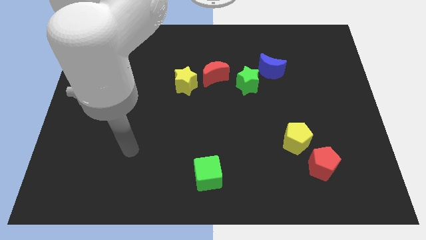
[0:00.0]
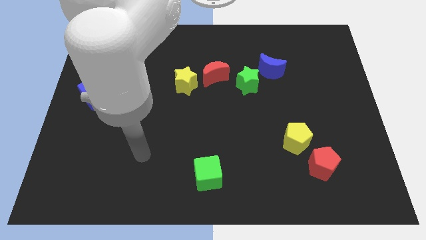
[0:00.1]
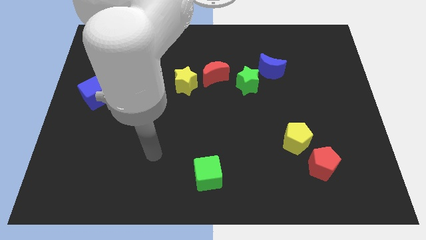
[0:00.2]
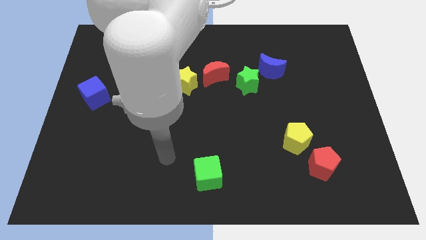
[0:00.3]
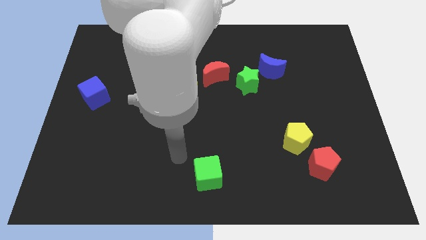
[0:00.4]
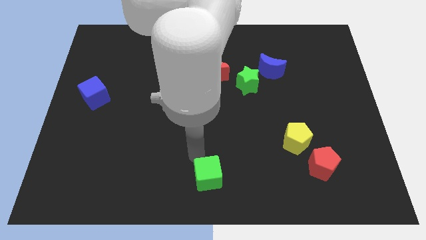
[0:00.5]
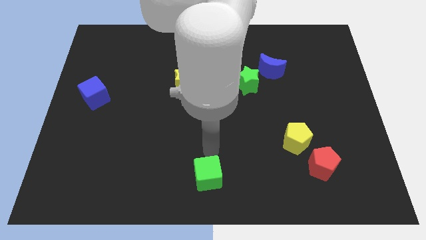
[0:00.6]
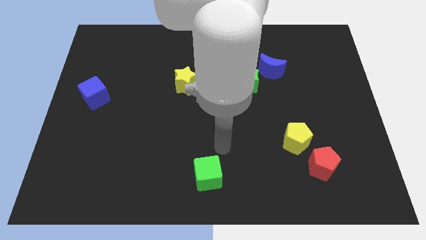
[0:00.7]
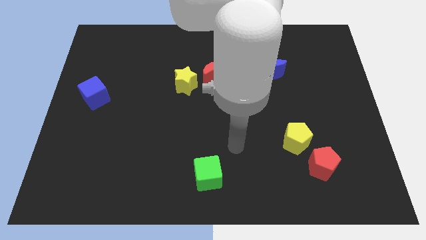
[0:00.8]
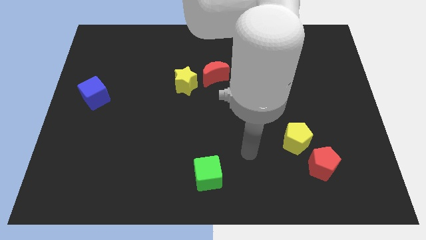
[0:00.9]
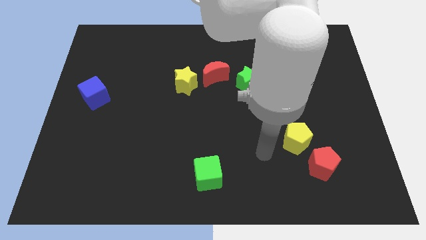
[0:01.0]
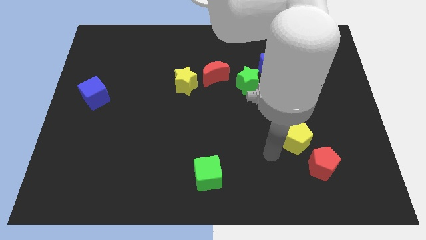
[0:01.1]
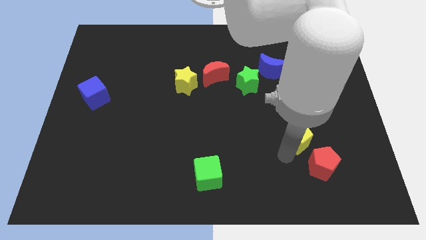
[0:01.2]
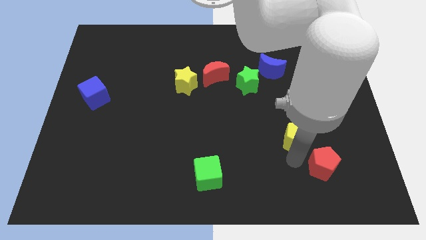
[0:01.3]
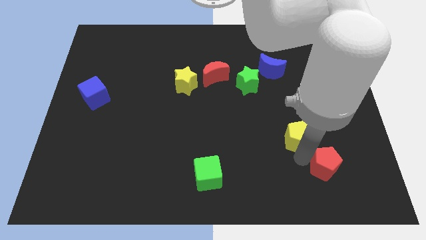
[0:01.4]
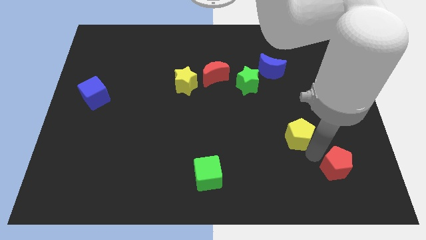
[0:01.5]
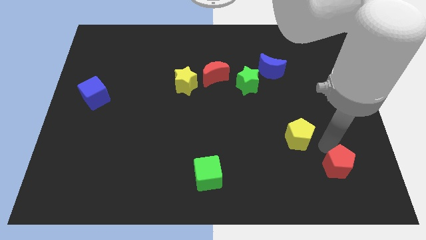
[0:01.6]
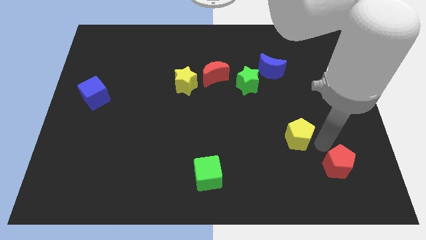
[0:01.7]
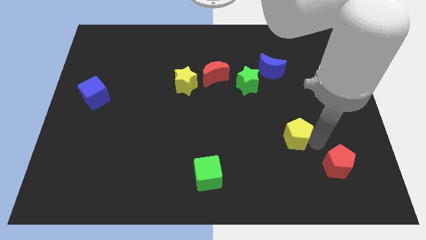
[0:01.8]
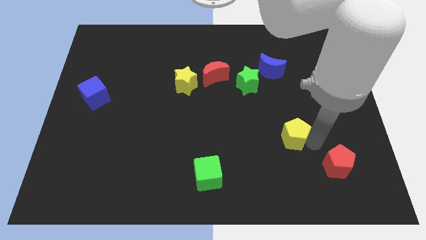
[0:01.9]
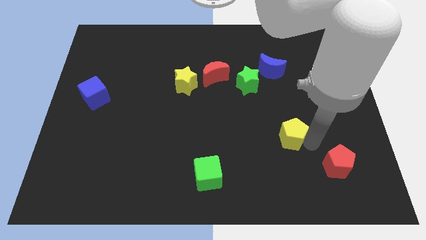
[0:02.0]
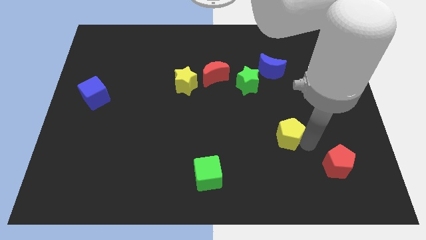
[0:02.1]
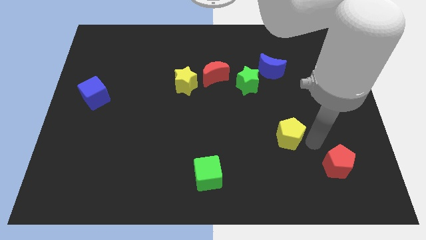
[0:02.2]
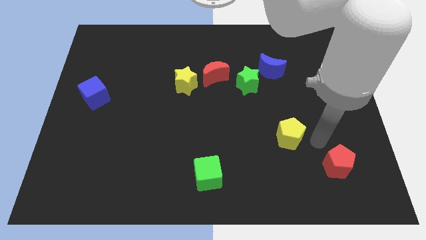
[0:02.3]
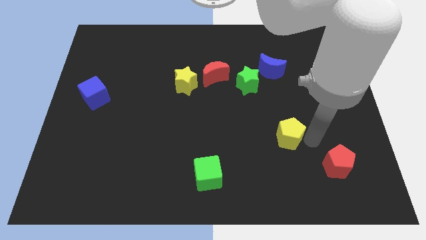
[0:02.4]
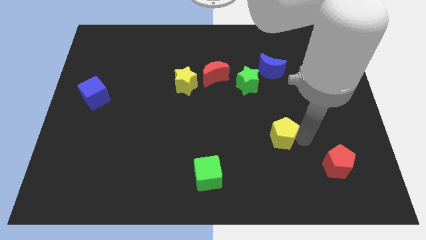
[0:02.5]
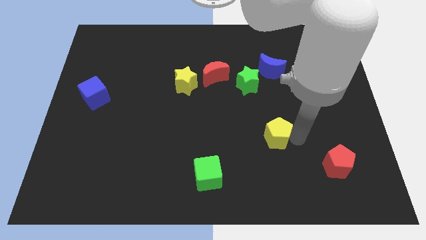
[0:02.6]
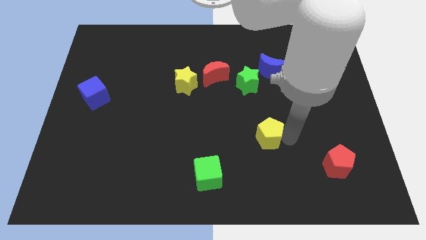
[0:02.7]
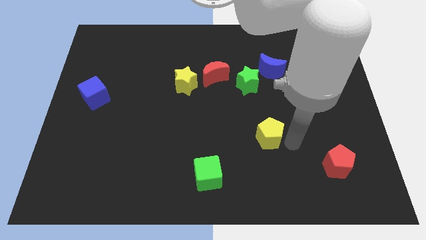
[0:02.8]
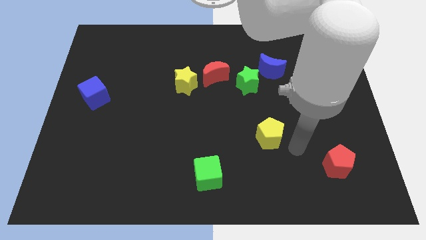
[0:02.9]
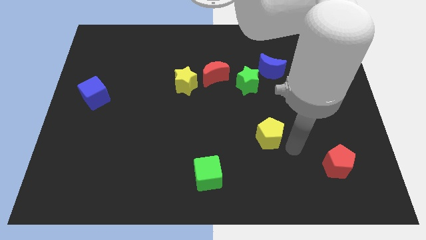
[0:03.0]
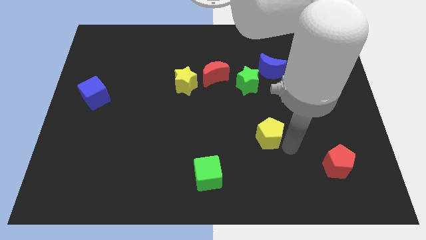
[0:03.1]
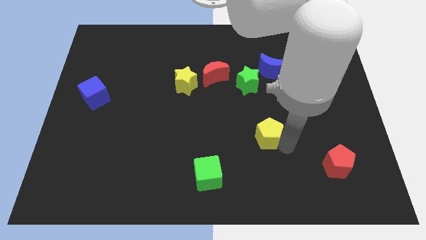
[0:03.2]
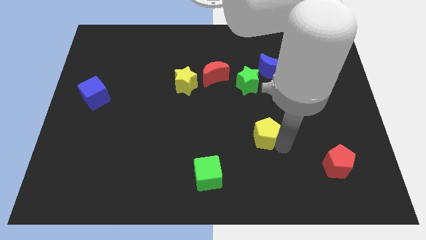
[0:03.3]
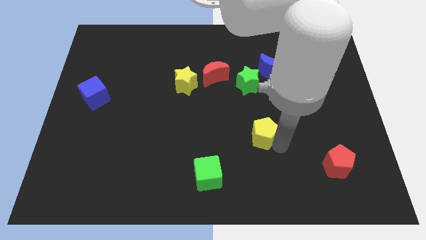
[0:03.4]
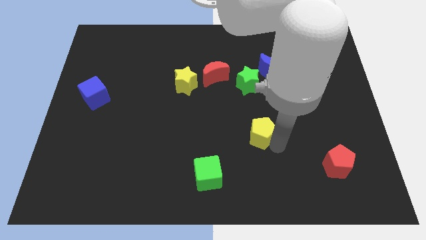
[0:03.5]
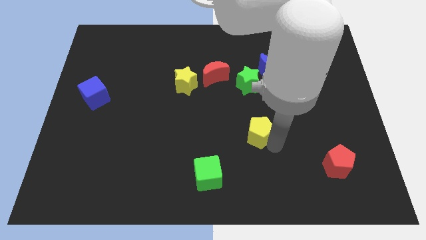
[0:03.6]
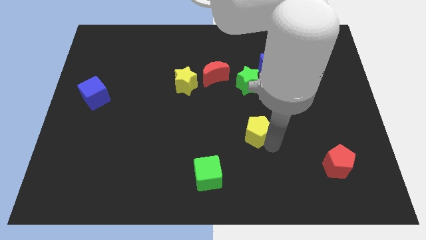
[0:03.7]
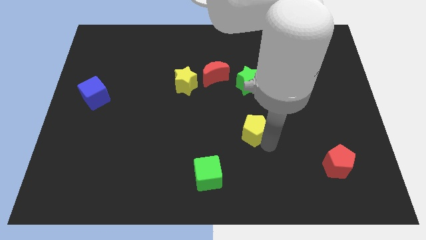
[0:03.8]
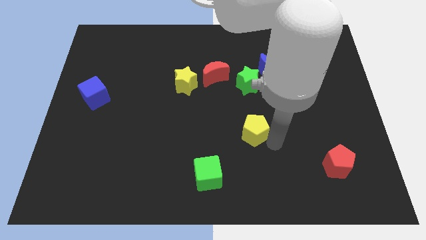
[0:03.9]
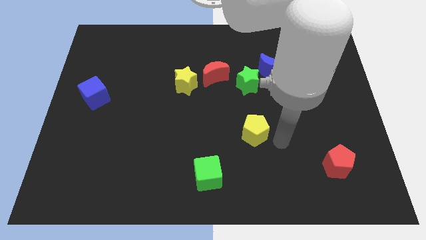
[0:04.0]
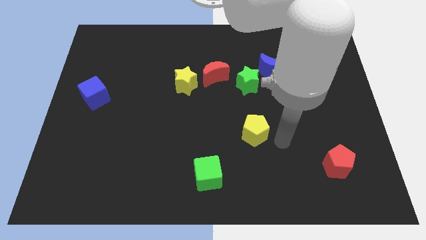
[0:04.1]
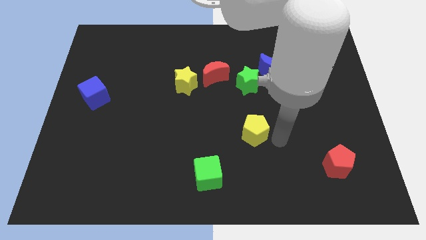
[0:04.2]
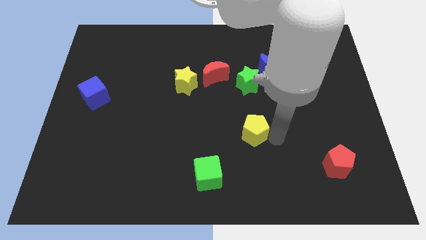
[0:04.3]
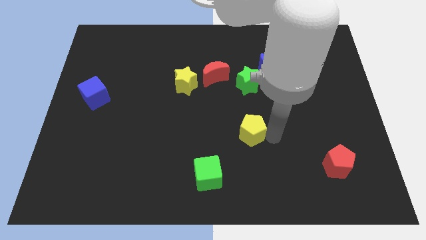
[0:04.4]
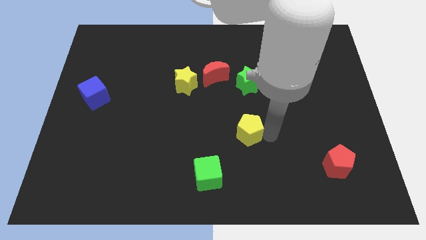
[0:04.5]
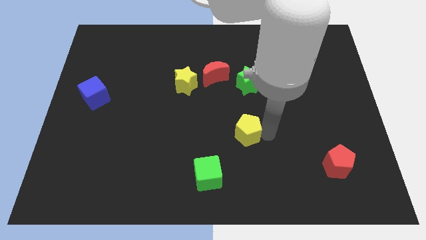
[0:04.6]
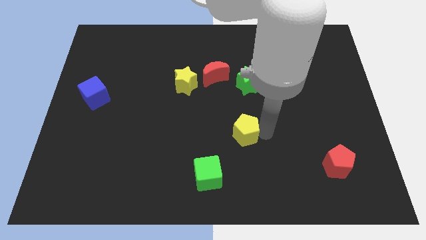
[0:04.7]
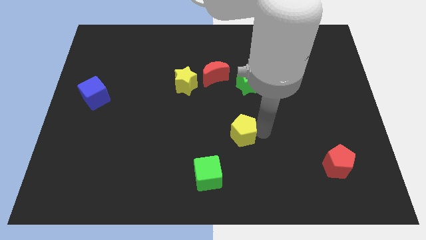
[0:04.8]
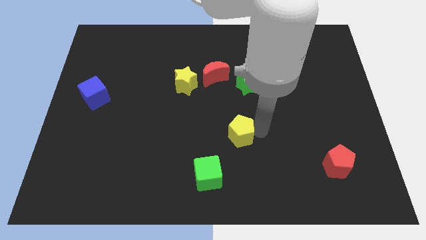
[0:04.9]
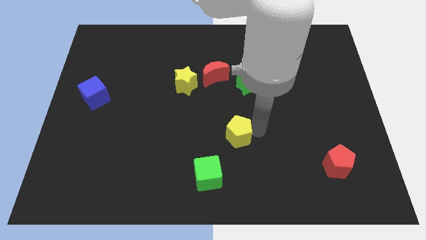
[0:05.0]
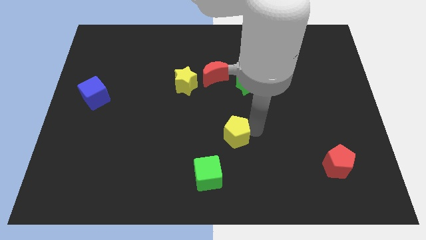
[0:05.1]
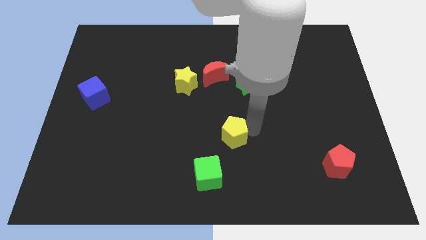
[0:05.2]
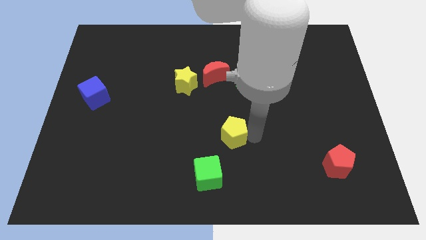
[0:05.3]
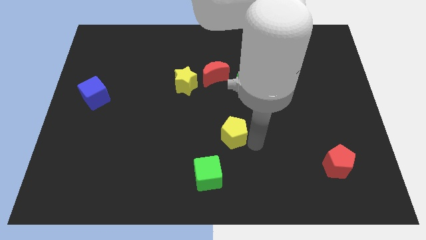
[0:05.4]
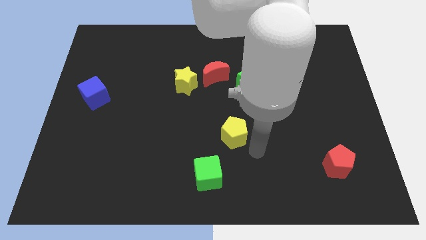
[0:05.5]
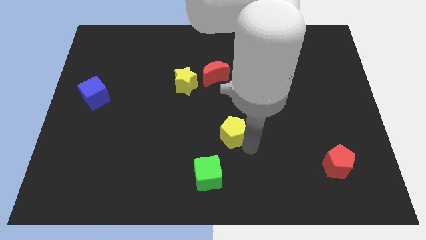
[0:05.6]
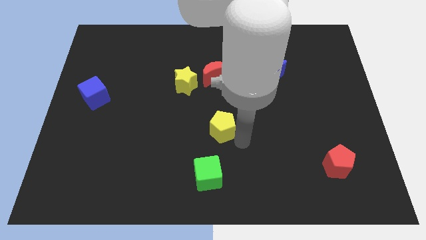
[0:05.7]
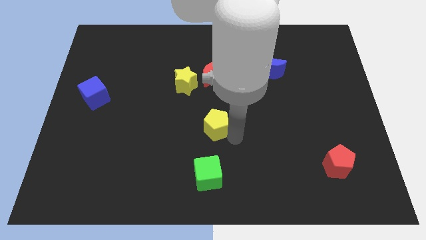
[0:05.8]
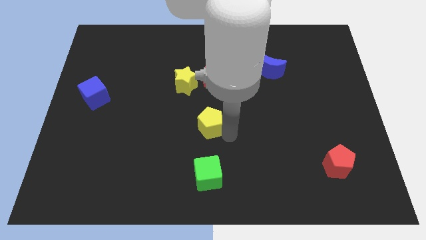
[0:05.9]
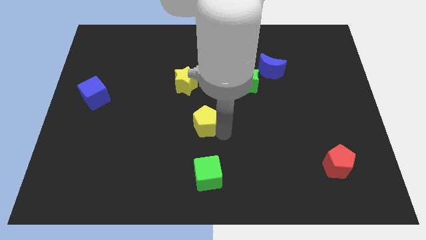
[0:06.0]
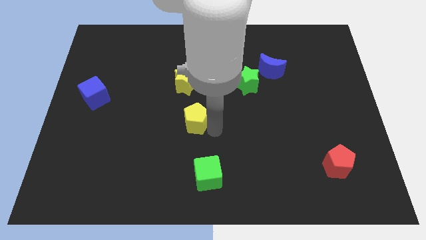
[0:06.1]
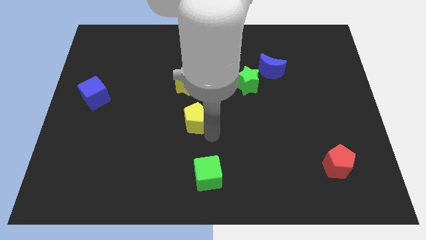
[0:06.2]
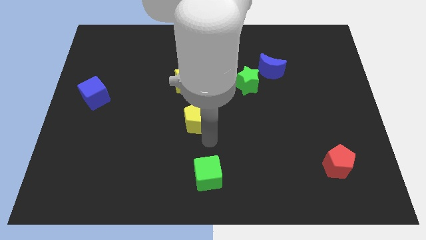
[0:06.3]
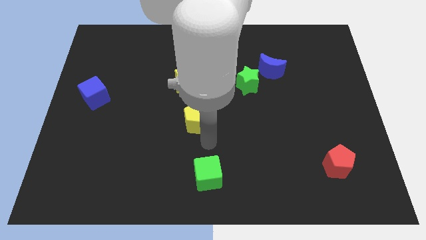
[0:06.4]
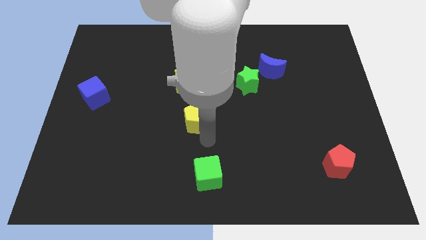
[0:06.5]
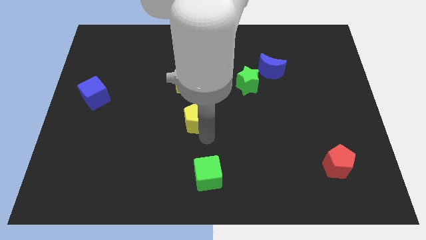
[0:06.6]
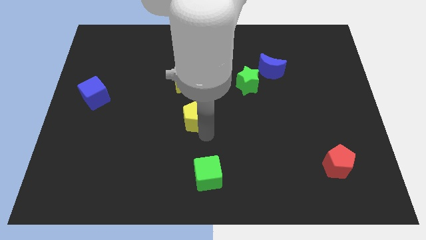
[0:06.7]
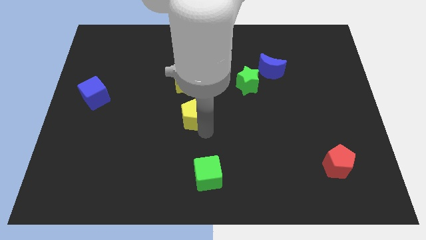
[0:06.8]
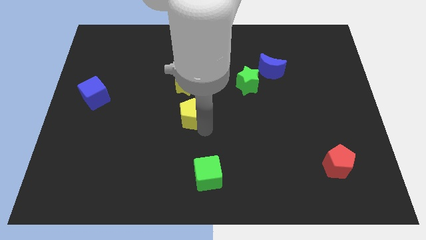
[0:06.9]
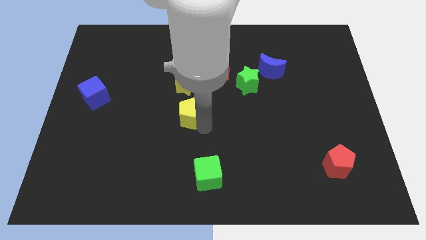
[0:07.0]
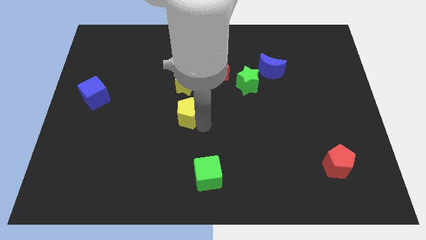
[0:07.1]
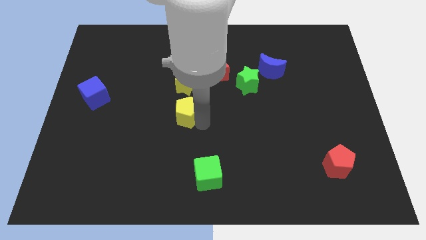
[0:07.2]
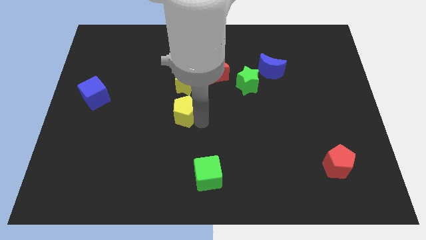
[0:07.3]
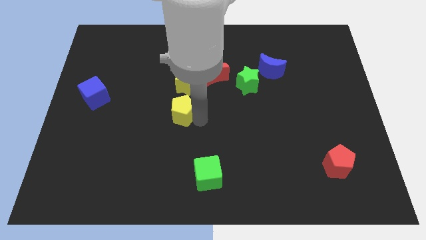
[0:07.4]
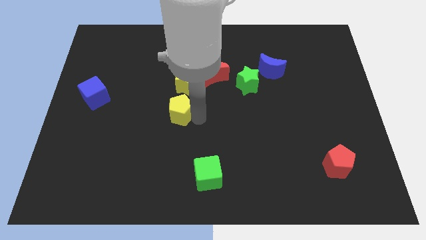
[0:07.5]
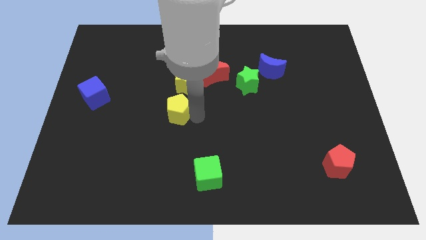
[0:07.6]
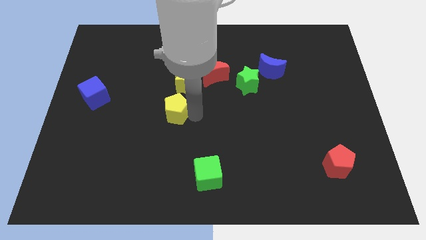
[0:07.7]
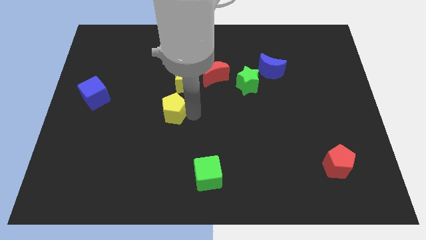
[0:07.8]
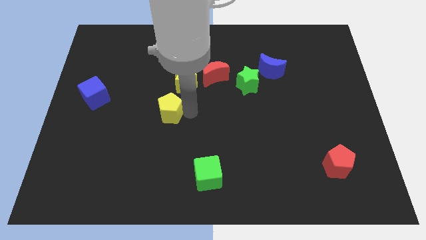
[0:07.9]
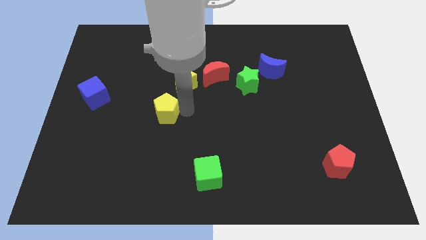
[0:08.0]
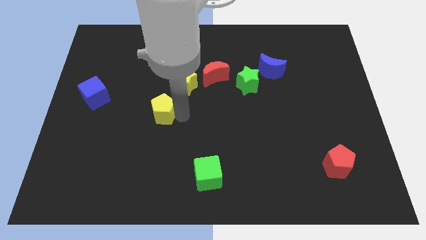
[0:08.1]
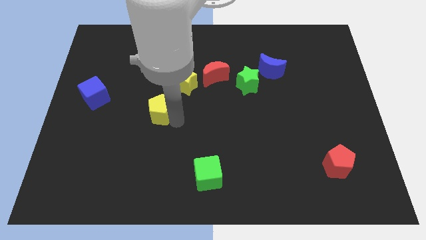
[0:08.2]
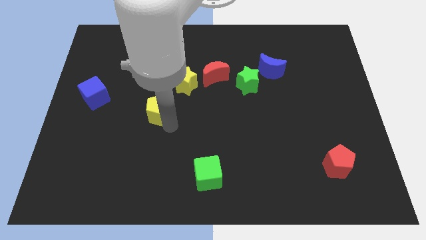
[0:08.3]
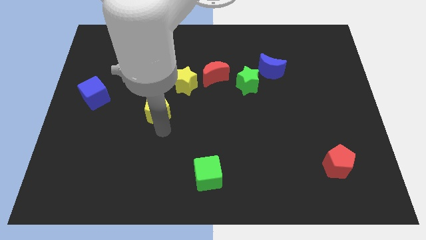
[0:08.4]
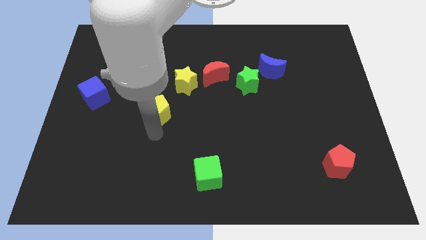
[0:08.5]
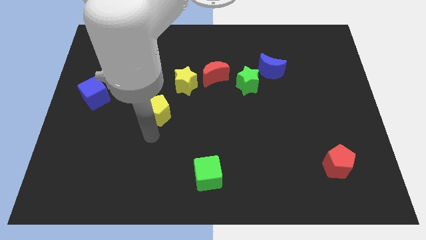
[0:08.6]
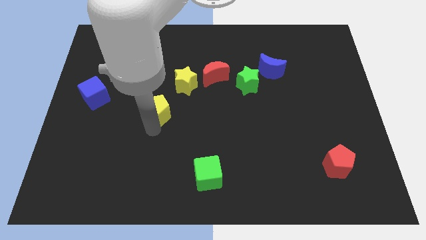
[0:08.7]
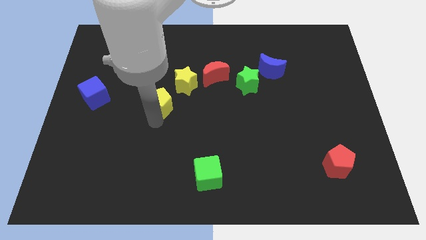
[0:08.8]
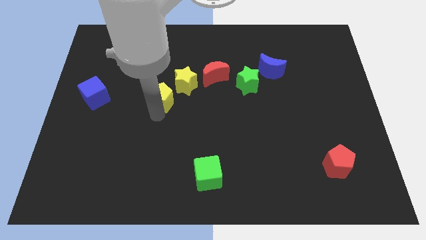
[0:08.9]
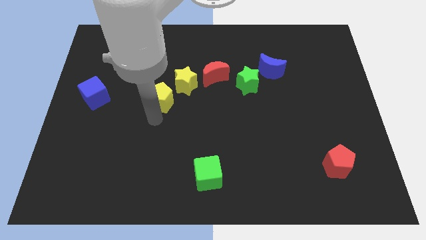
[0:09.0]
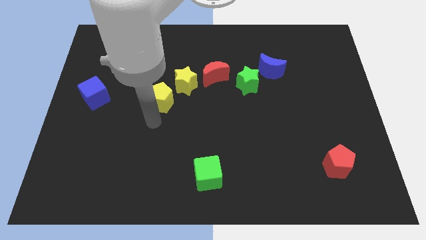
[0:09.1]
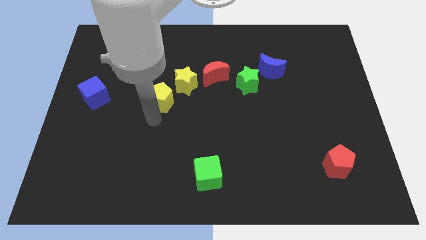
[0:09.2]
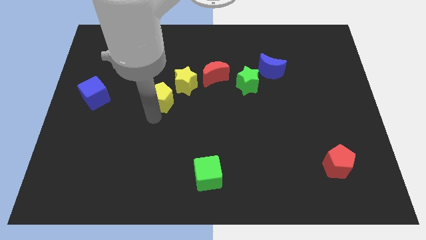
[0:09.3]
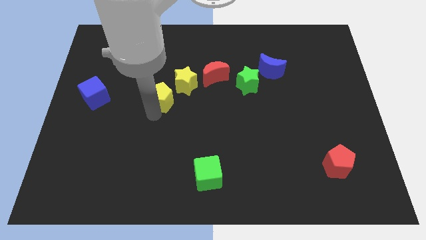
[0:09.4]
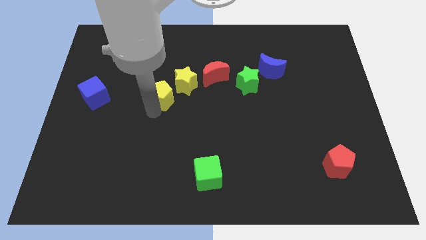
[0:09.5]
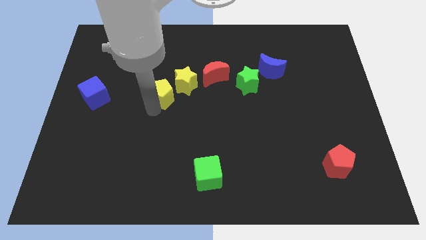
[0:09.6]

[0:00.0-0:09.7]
slide the yellow pentagon diagonally up and to the left
